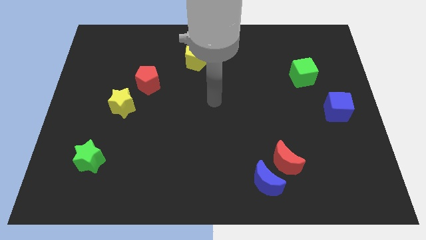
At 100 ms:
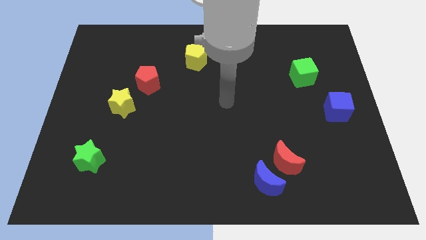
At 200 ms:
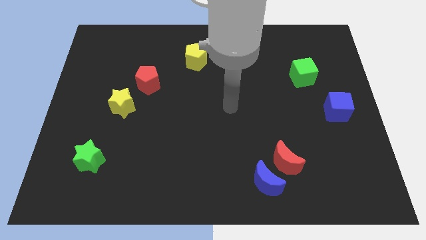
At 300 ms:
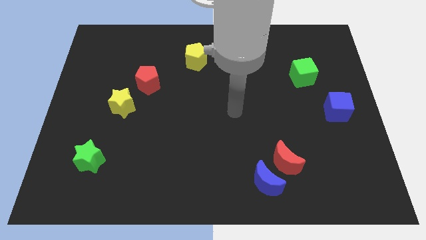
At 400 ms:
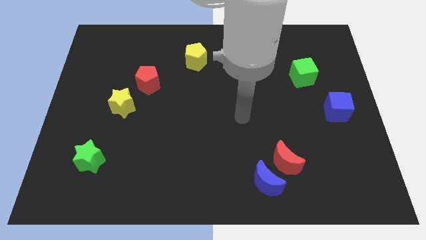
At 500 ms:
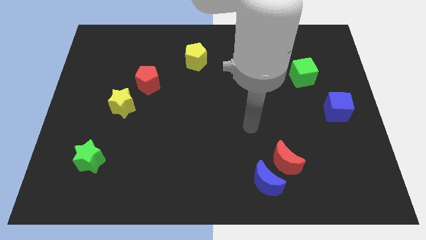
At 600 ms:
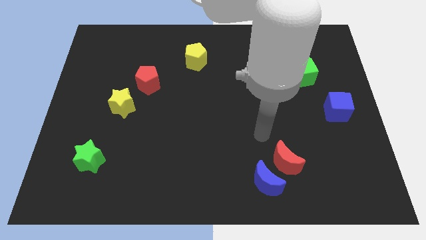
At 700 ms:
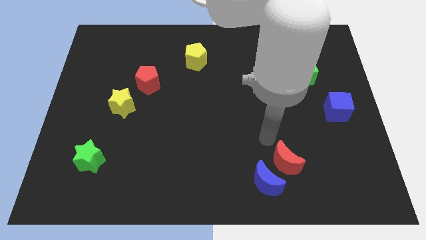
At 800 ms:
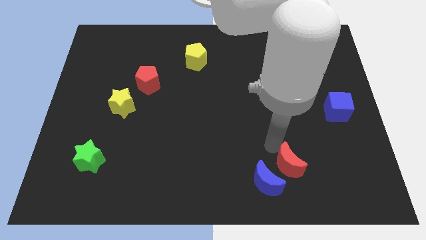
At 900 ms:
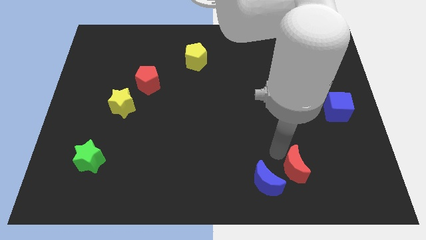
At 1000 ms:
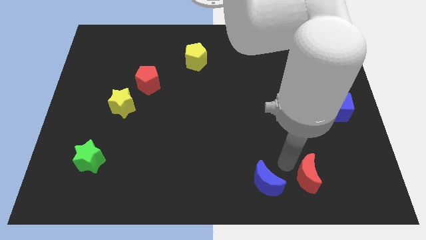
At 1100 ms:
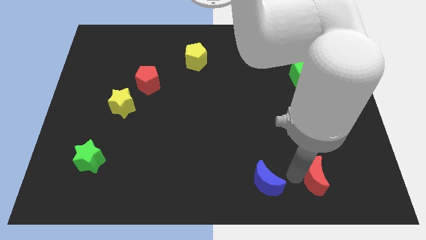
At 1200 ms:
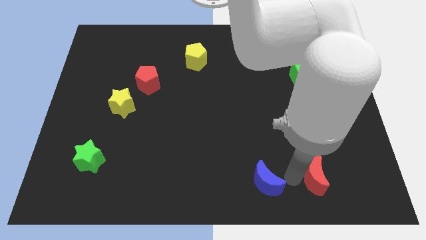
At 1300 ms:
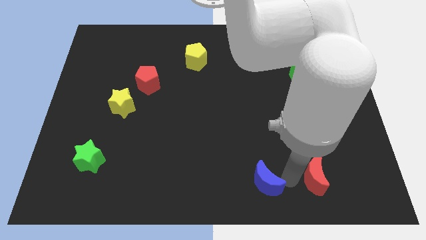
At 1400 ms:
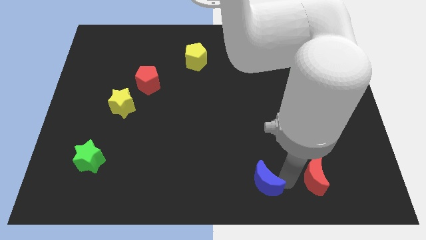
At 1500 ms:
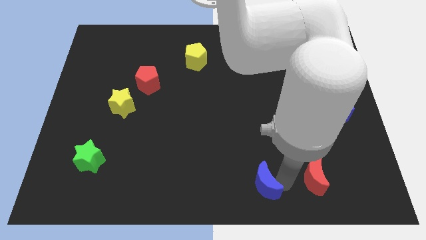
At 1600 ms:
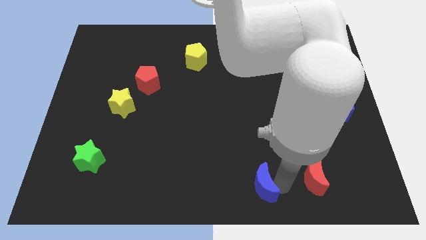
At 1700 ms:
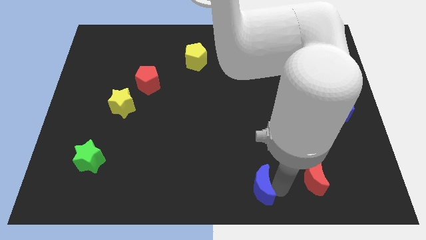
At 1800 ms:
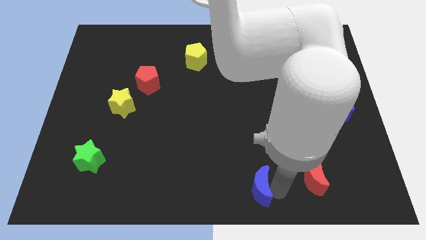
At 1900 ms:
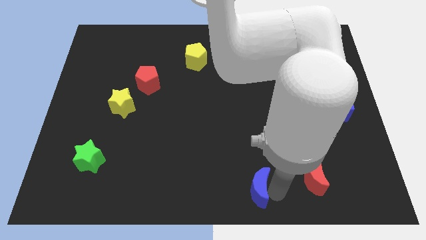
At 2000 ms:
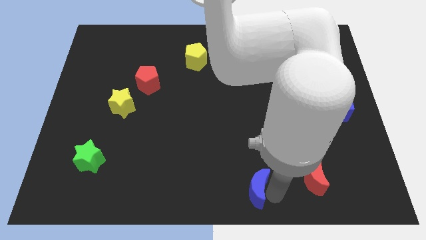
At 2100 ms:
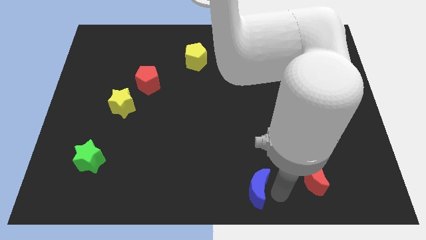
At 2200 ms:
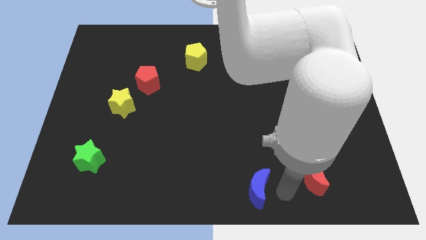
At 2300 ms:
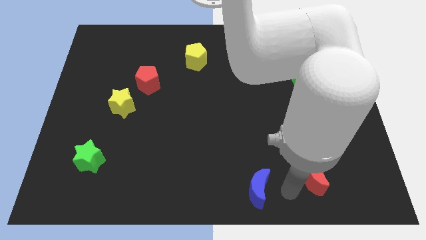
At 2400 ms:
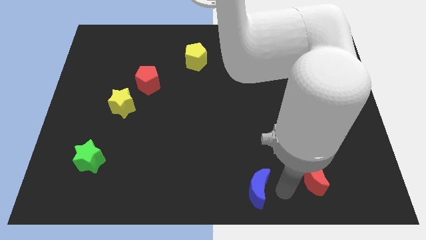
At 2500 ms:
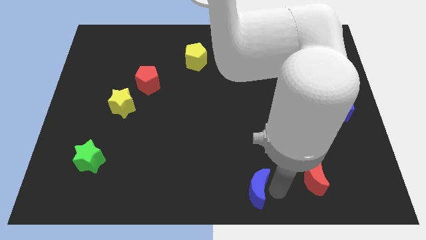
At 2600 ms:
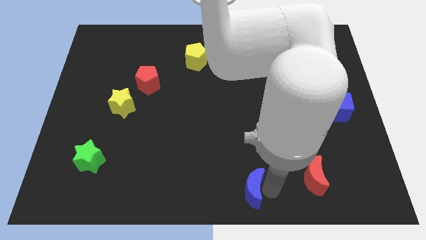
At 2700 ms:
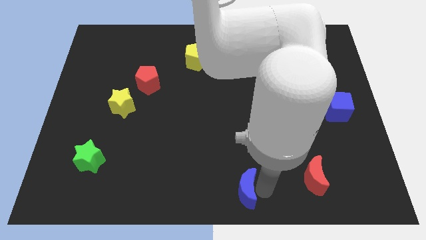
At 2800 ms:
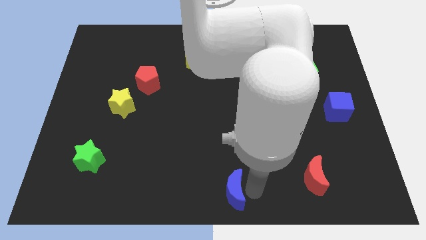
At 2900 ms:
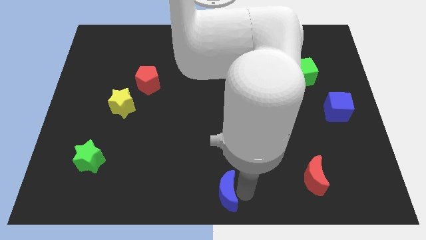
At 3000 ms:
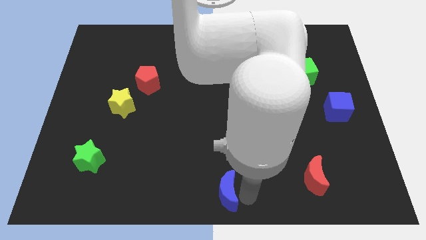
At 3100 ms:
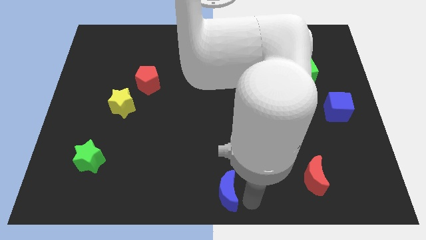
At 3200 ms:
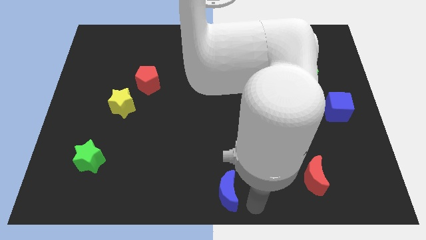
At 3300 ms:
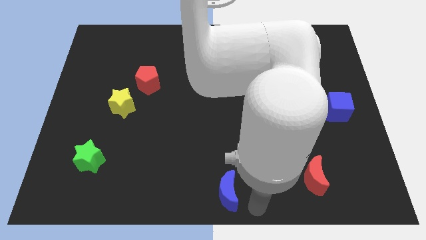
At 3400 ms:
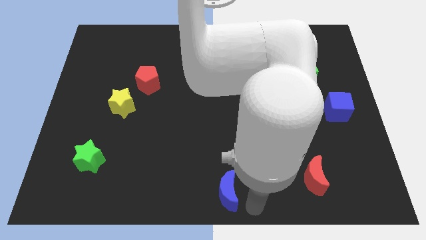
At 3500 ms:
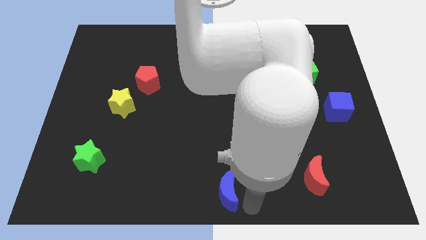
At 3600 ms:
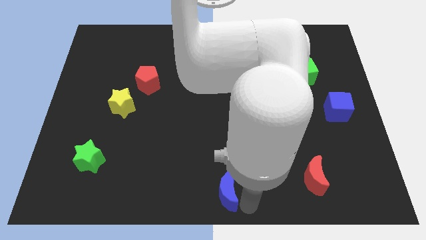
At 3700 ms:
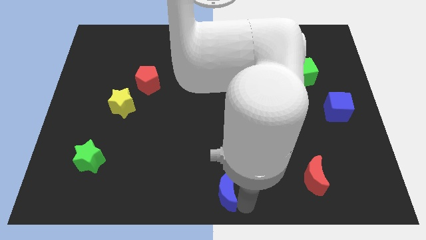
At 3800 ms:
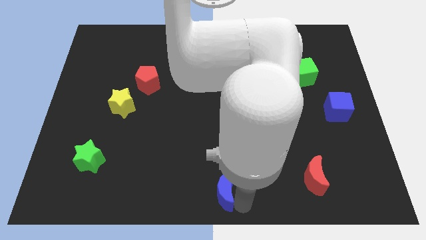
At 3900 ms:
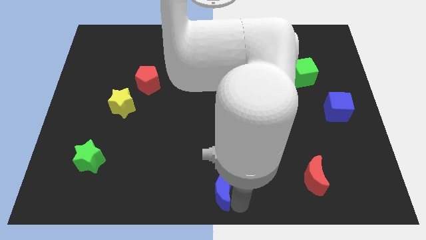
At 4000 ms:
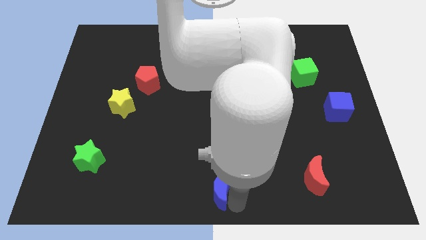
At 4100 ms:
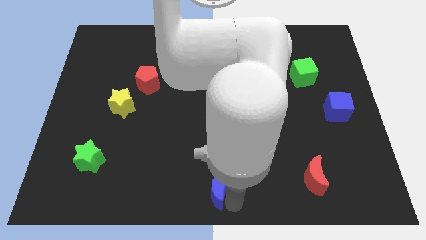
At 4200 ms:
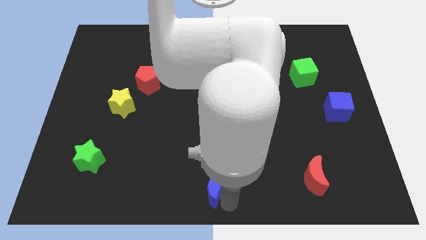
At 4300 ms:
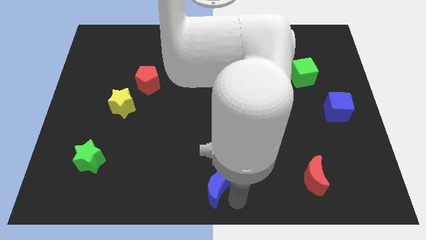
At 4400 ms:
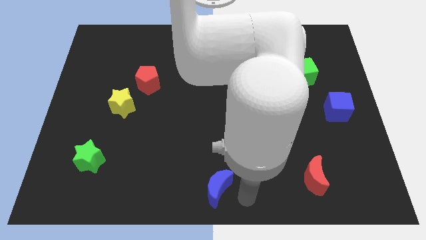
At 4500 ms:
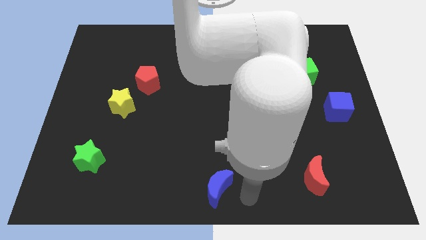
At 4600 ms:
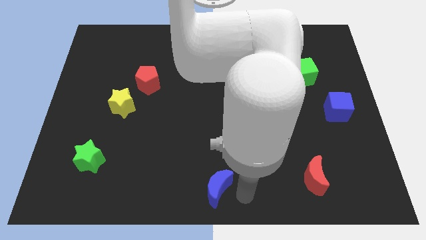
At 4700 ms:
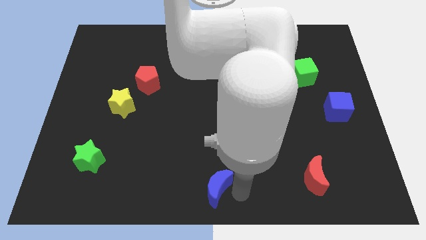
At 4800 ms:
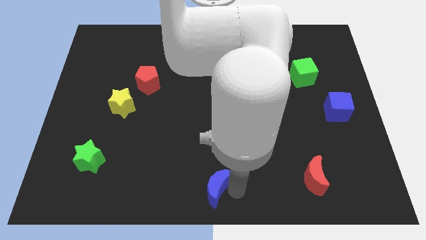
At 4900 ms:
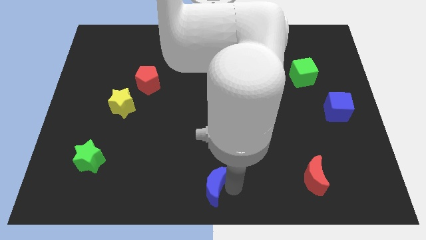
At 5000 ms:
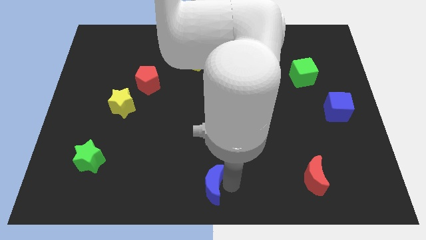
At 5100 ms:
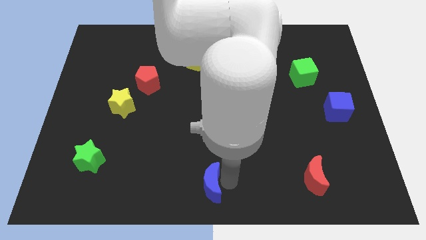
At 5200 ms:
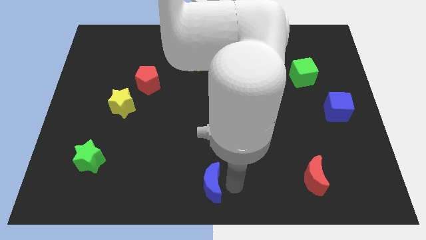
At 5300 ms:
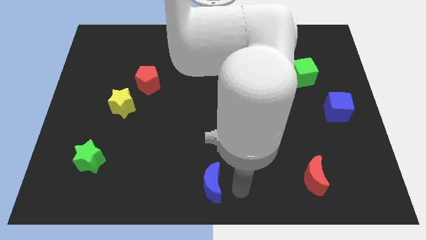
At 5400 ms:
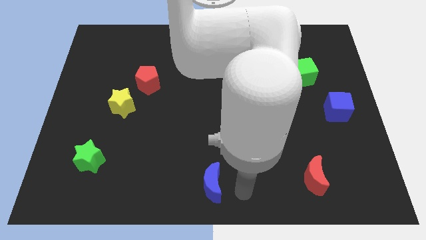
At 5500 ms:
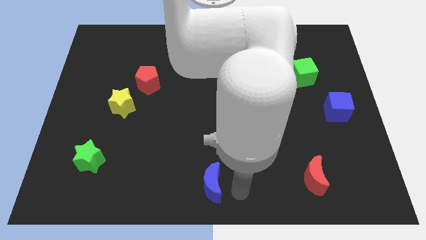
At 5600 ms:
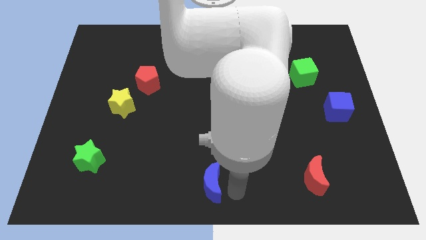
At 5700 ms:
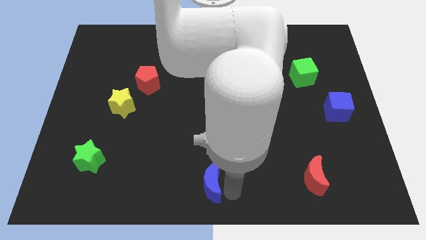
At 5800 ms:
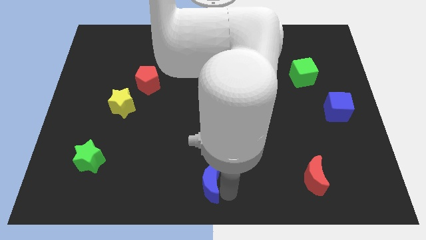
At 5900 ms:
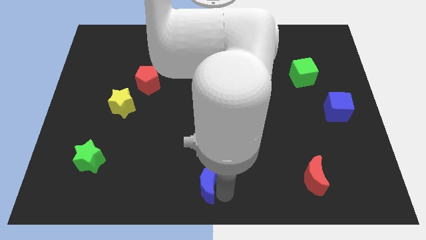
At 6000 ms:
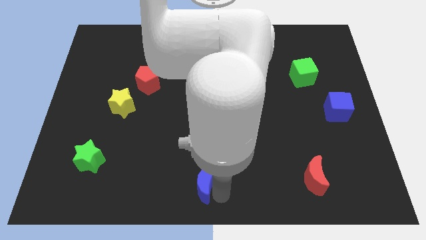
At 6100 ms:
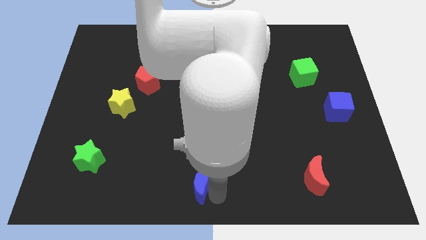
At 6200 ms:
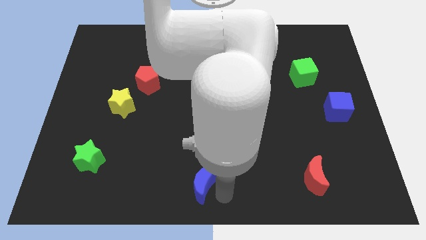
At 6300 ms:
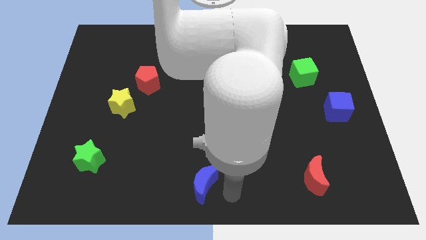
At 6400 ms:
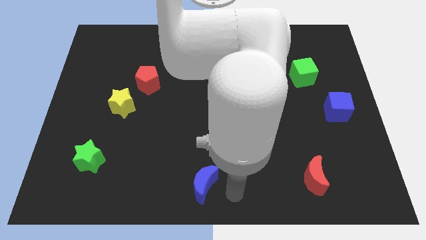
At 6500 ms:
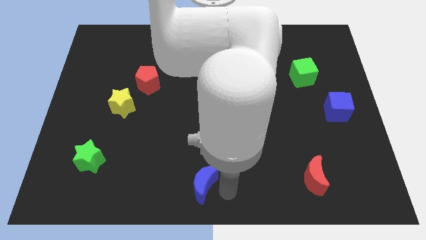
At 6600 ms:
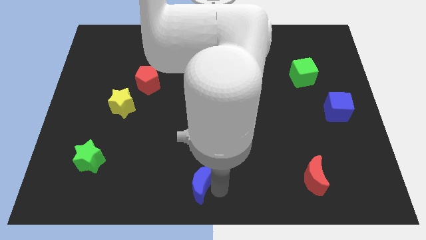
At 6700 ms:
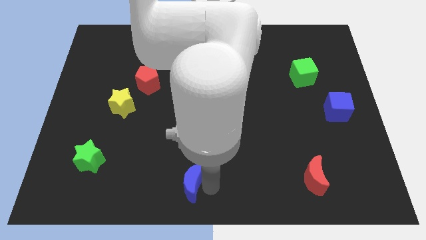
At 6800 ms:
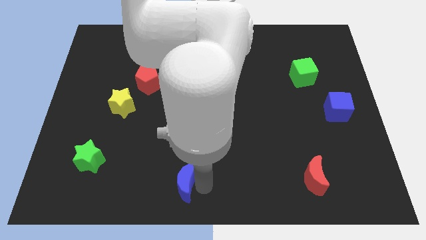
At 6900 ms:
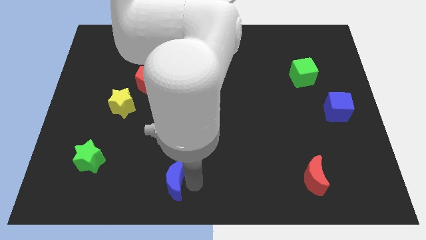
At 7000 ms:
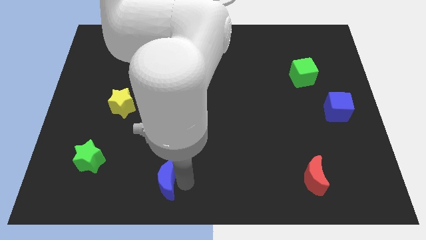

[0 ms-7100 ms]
push the blue moon to the left

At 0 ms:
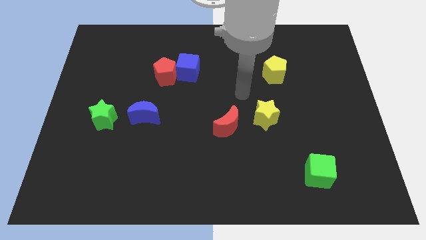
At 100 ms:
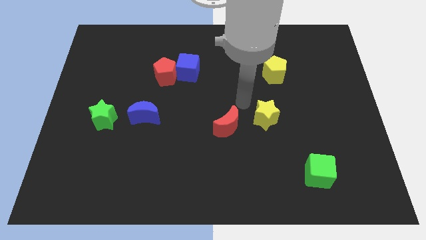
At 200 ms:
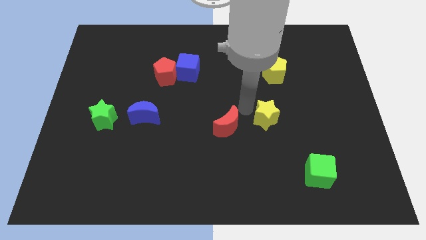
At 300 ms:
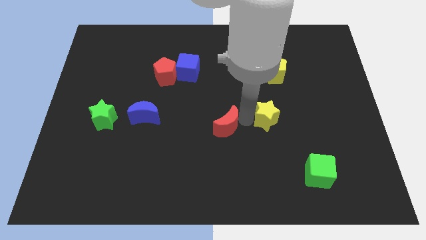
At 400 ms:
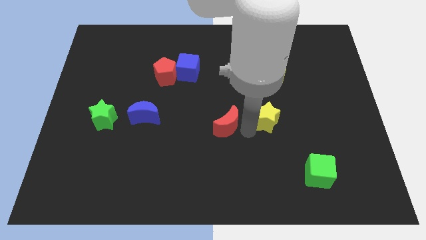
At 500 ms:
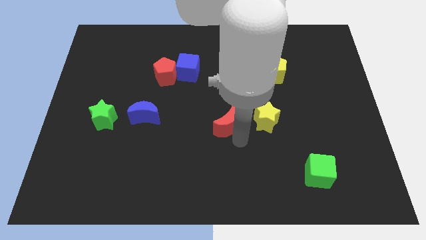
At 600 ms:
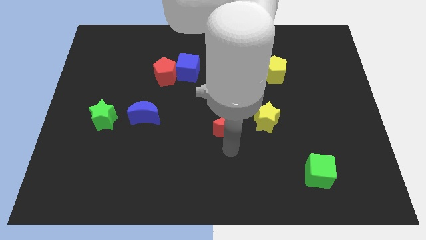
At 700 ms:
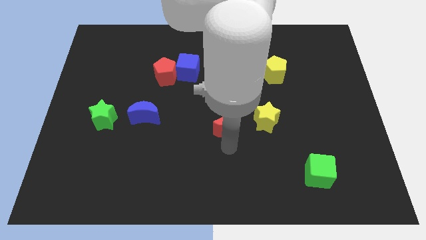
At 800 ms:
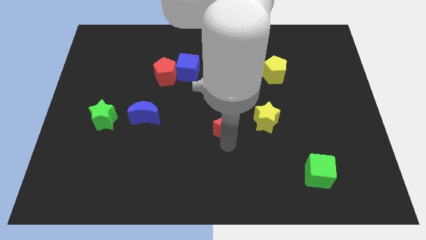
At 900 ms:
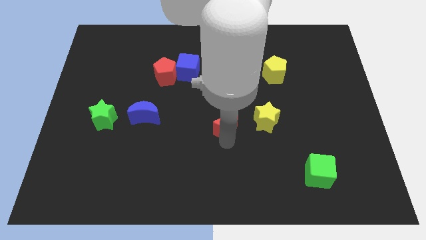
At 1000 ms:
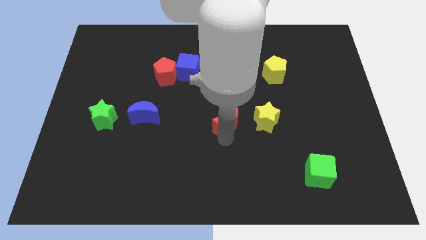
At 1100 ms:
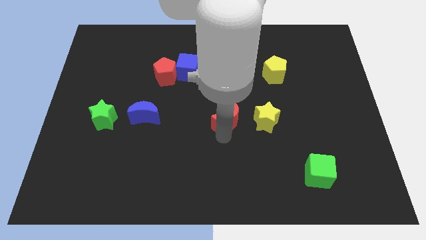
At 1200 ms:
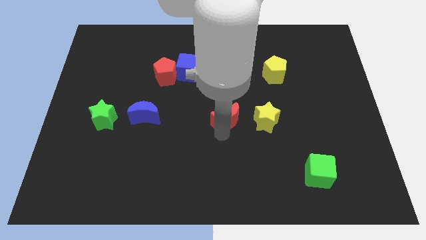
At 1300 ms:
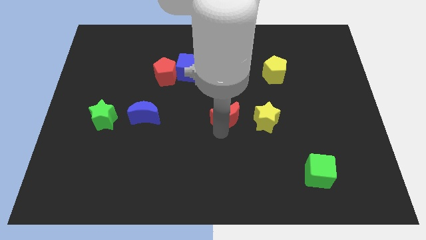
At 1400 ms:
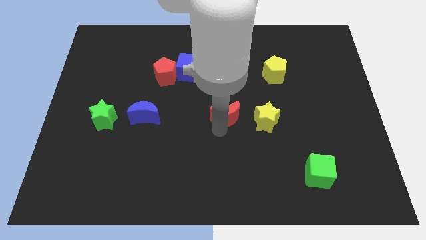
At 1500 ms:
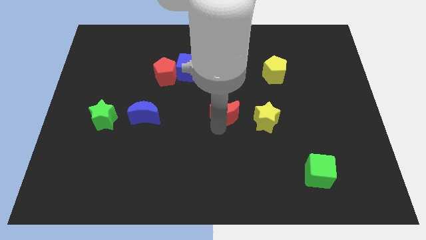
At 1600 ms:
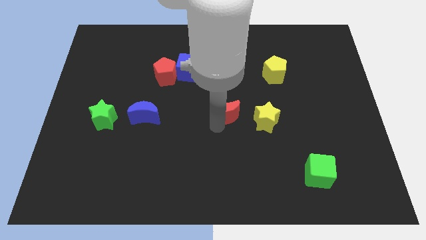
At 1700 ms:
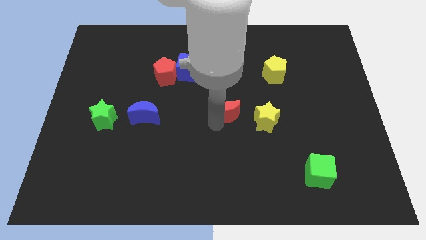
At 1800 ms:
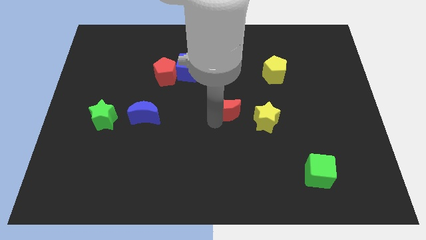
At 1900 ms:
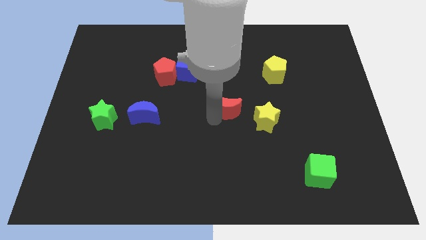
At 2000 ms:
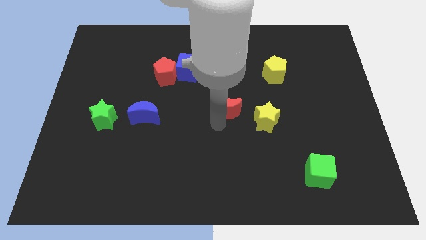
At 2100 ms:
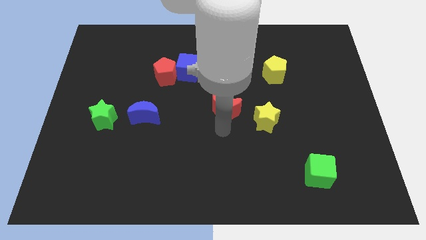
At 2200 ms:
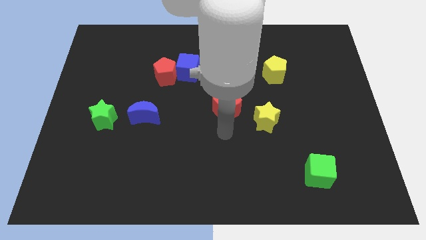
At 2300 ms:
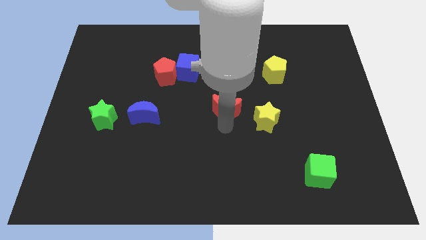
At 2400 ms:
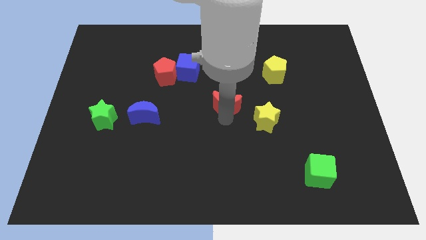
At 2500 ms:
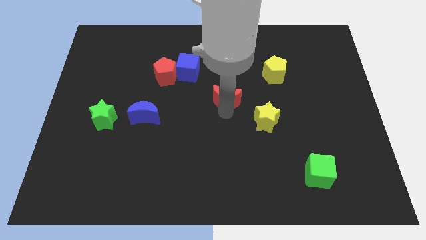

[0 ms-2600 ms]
move the red moon slightly up
